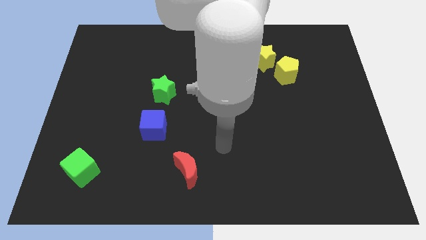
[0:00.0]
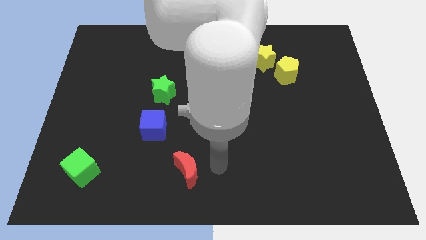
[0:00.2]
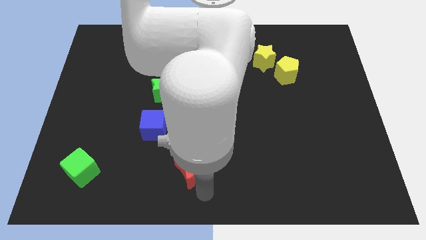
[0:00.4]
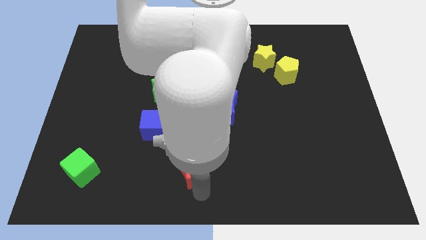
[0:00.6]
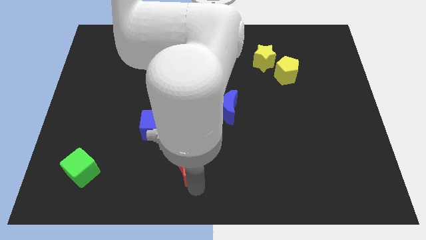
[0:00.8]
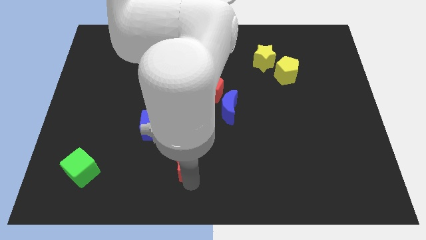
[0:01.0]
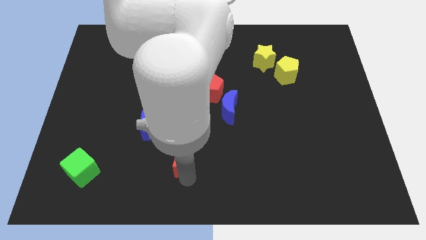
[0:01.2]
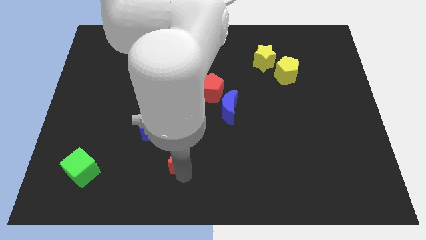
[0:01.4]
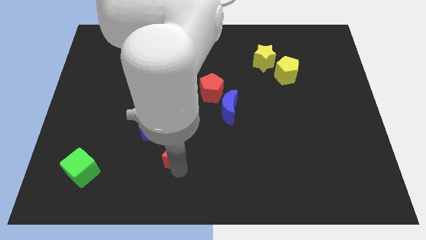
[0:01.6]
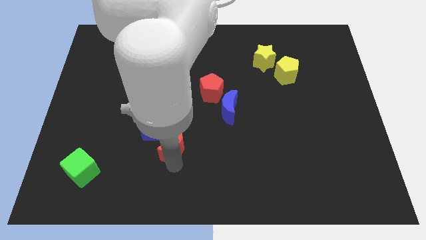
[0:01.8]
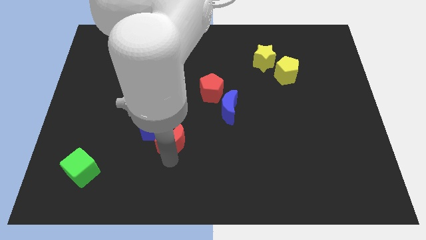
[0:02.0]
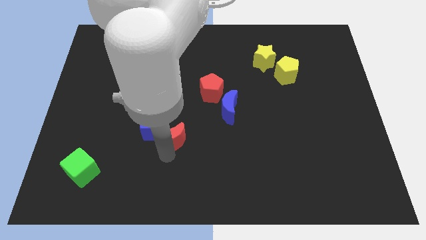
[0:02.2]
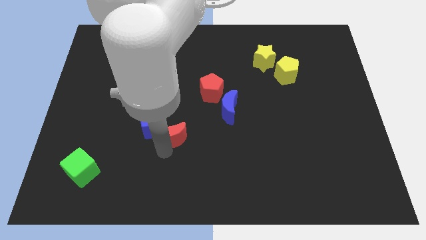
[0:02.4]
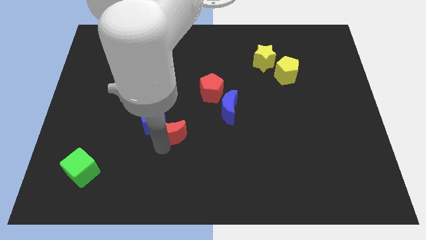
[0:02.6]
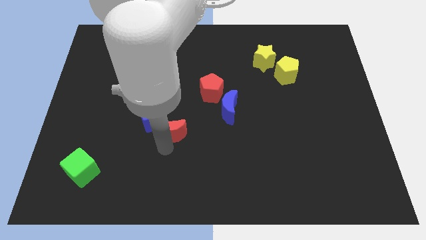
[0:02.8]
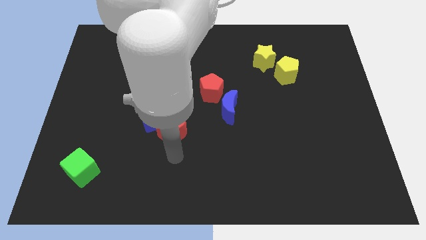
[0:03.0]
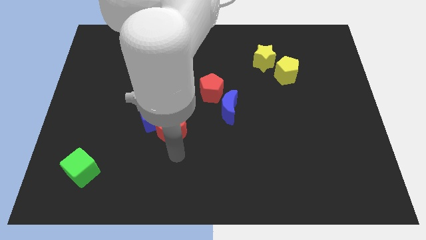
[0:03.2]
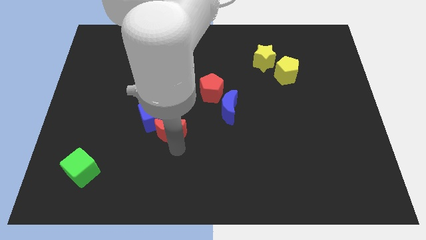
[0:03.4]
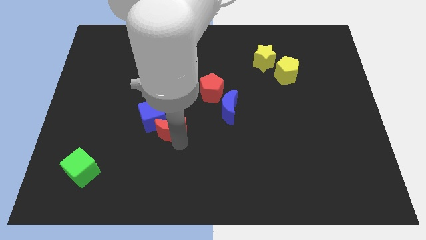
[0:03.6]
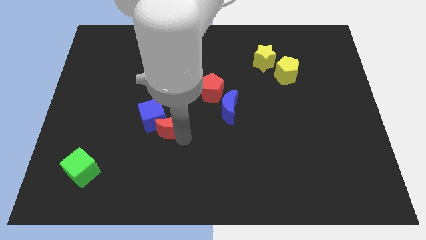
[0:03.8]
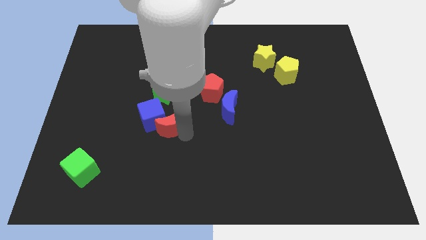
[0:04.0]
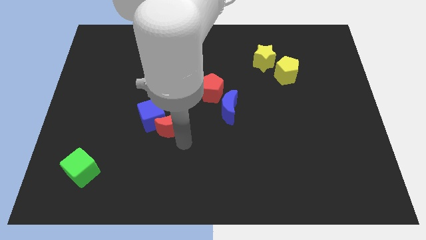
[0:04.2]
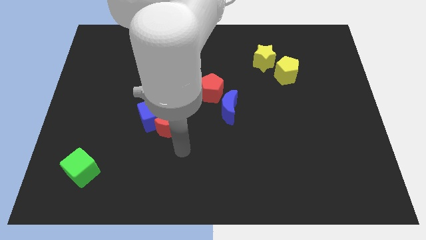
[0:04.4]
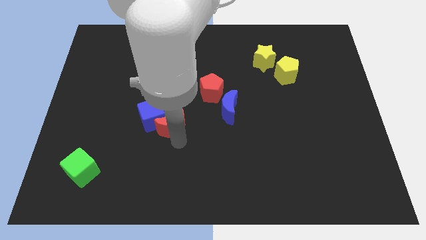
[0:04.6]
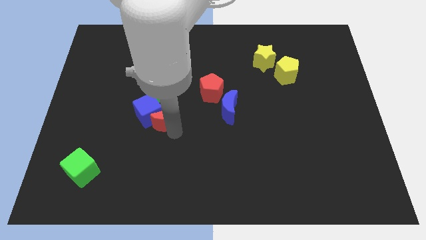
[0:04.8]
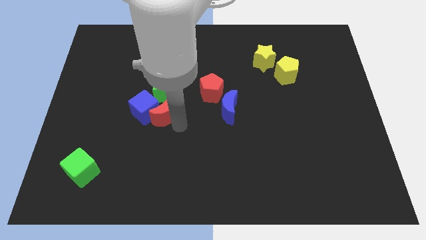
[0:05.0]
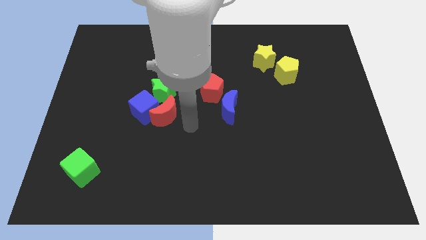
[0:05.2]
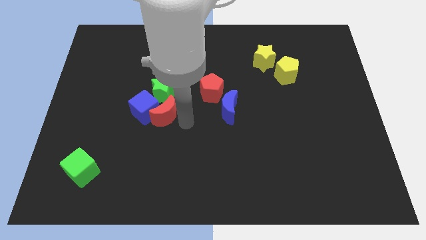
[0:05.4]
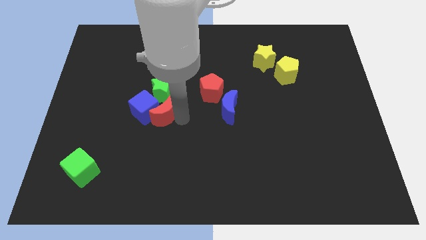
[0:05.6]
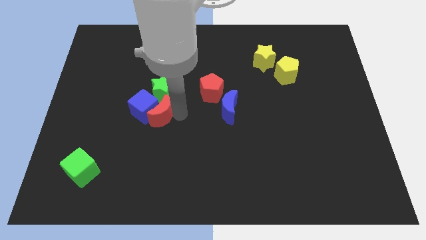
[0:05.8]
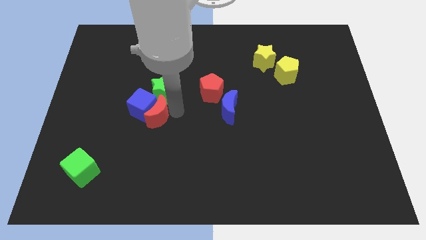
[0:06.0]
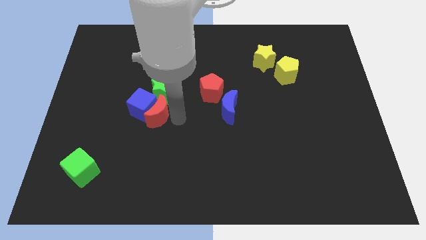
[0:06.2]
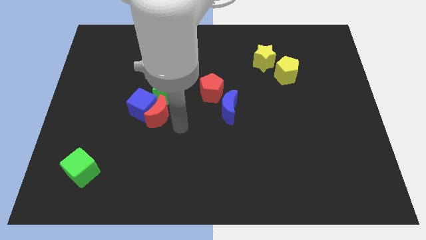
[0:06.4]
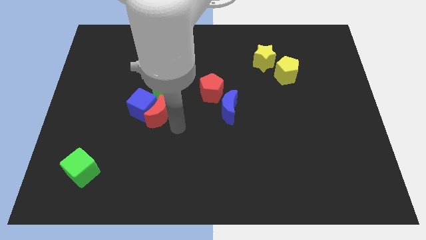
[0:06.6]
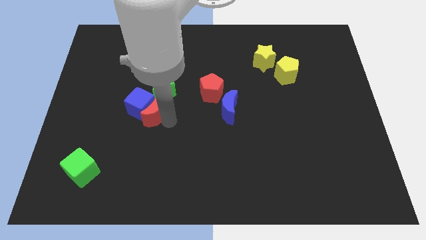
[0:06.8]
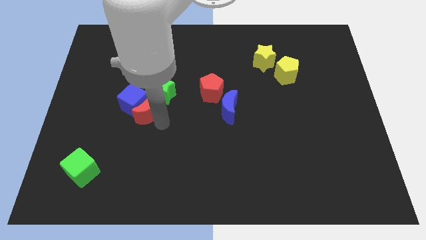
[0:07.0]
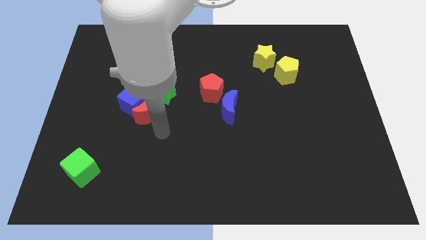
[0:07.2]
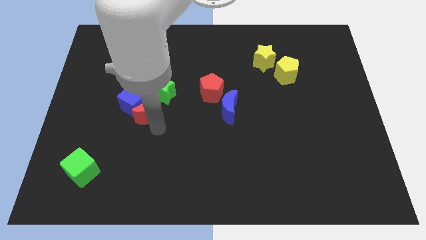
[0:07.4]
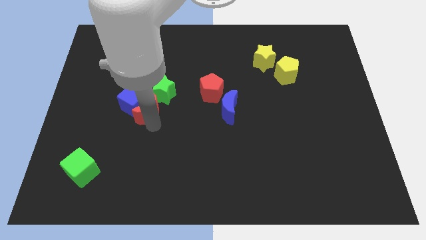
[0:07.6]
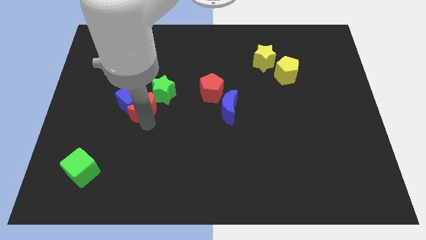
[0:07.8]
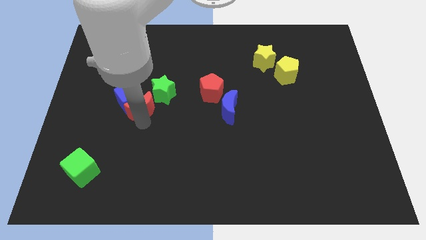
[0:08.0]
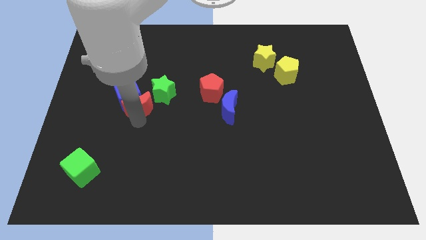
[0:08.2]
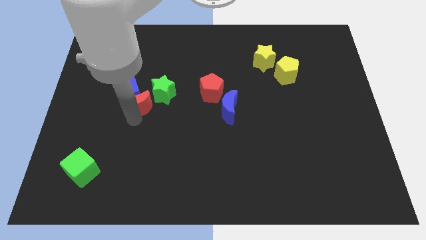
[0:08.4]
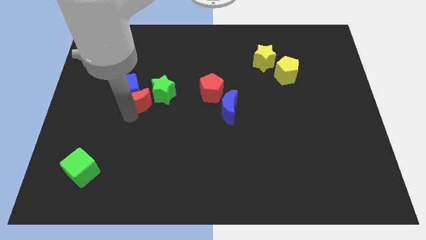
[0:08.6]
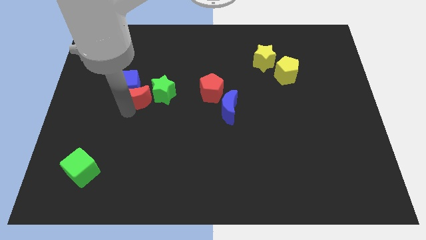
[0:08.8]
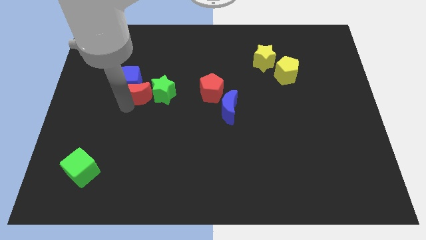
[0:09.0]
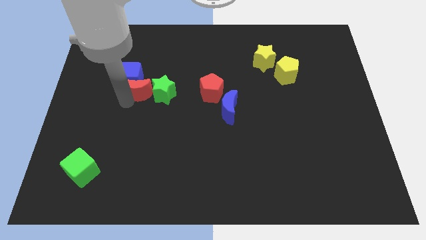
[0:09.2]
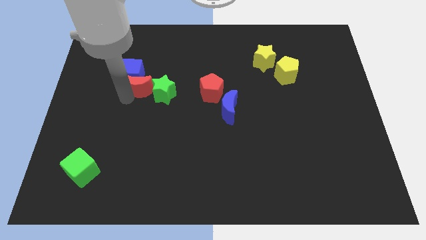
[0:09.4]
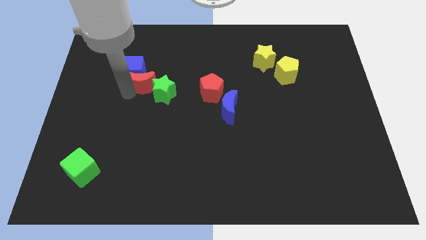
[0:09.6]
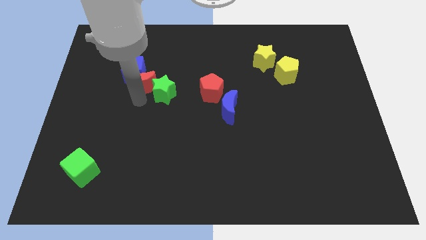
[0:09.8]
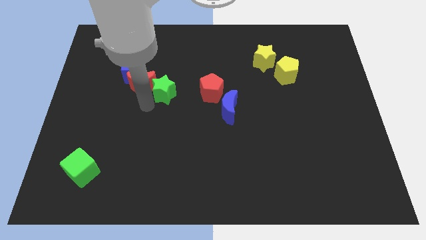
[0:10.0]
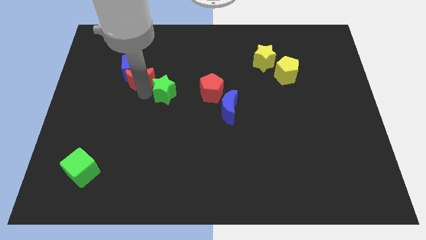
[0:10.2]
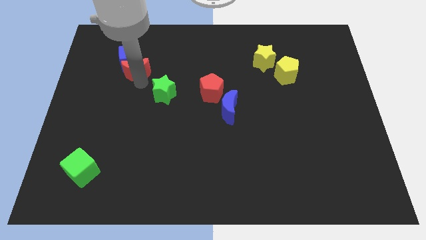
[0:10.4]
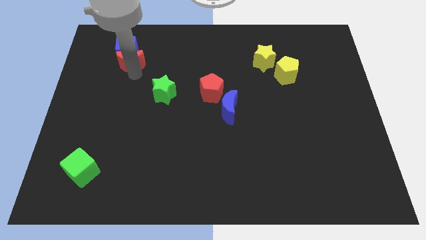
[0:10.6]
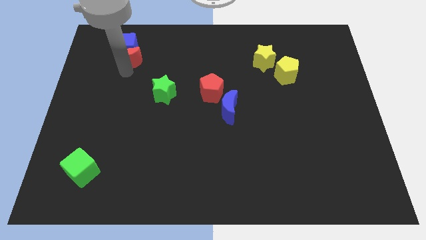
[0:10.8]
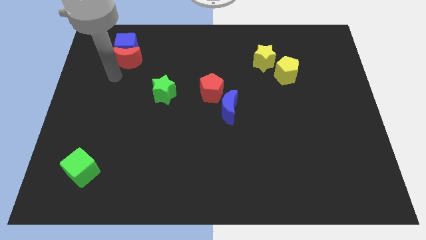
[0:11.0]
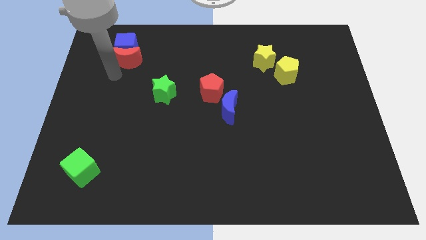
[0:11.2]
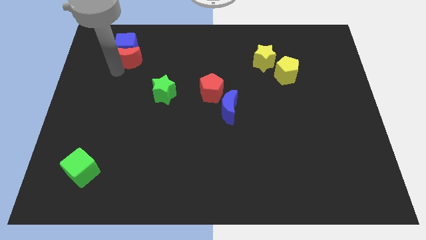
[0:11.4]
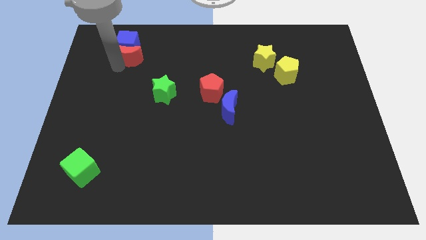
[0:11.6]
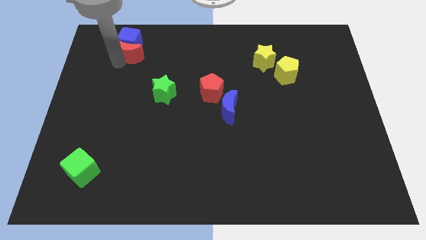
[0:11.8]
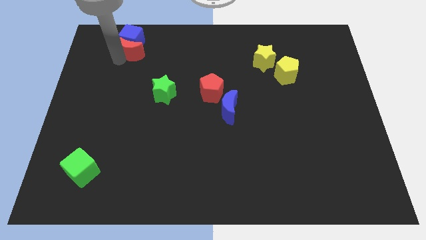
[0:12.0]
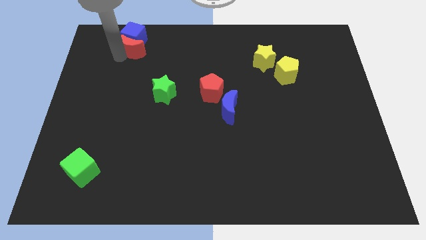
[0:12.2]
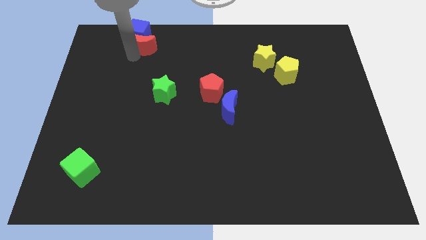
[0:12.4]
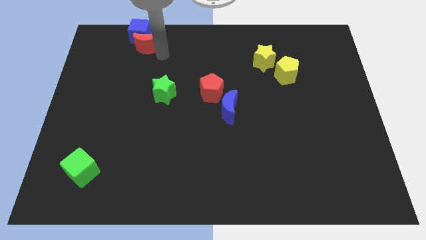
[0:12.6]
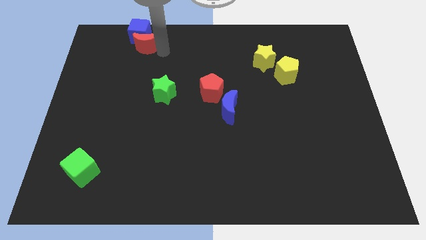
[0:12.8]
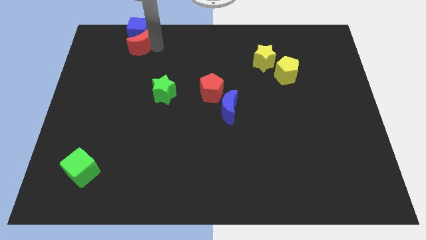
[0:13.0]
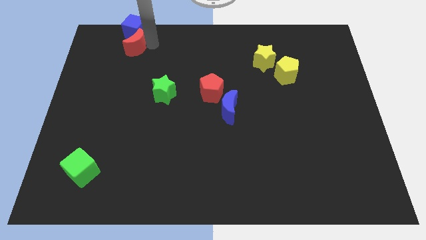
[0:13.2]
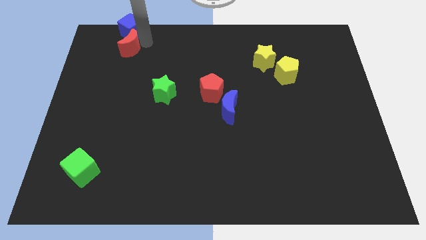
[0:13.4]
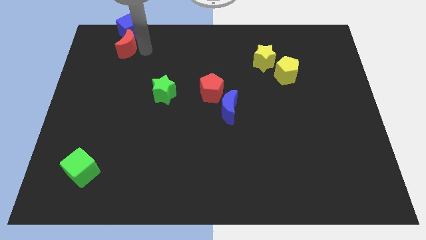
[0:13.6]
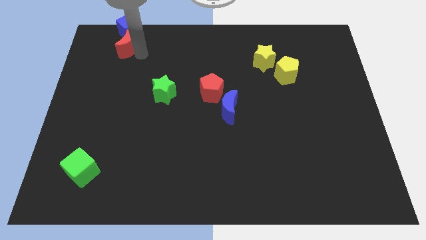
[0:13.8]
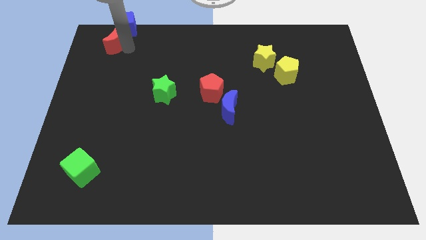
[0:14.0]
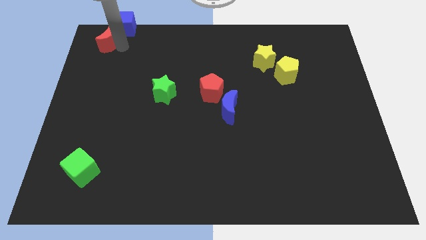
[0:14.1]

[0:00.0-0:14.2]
push the red moon to the top left corner
